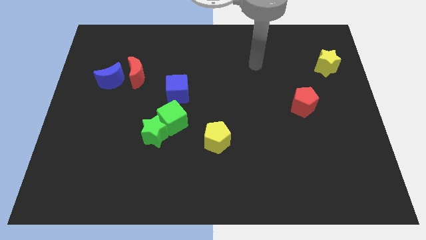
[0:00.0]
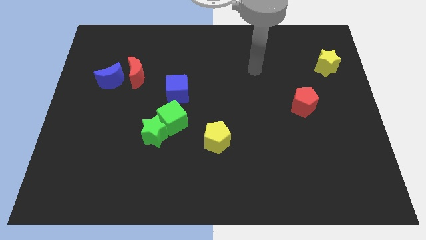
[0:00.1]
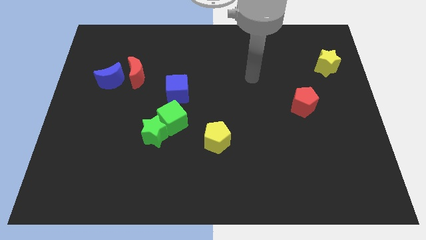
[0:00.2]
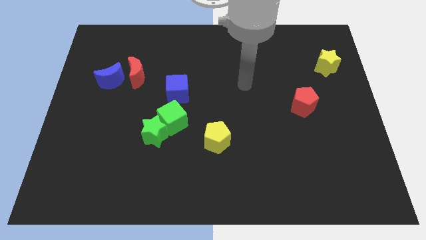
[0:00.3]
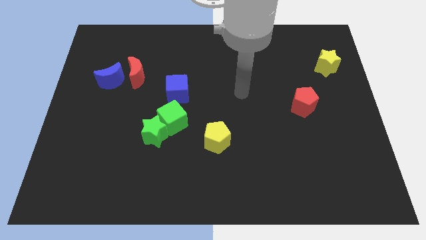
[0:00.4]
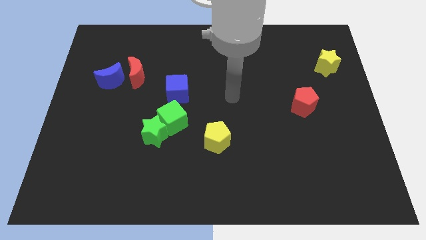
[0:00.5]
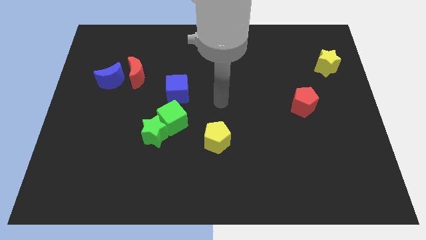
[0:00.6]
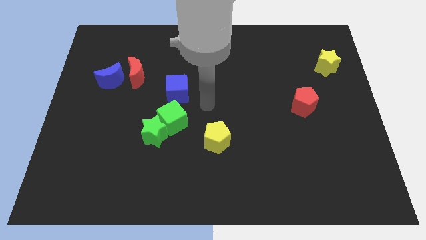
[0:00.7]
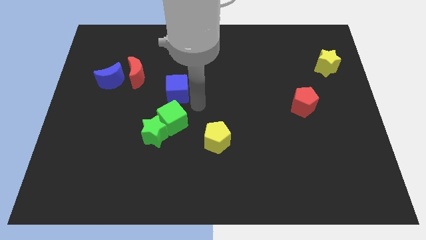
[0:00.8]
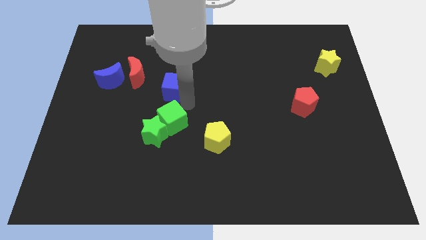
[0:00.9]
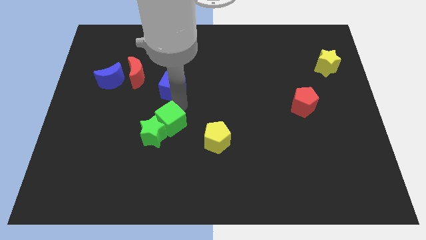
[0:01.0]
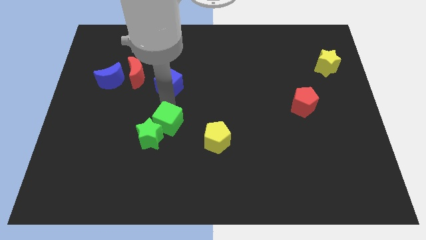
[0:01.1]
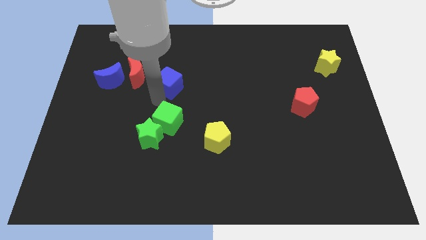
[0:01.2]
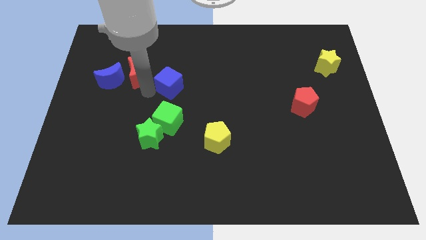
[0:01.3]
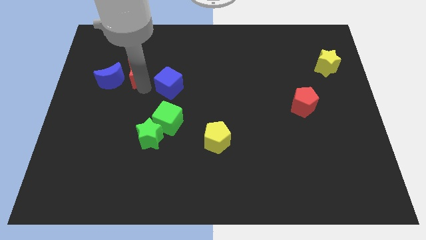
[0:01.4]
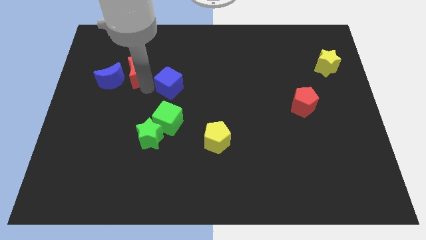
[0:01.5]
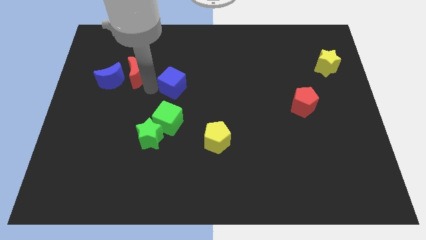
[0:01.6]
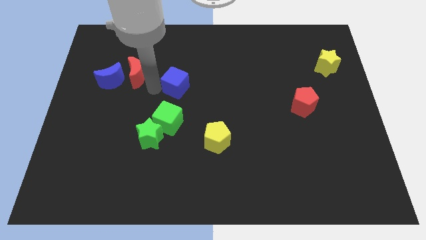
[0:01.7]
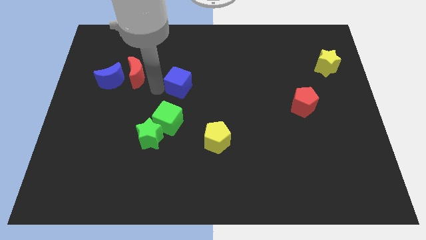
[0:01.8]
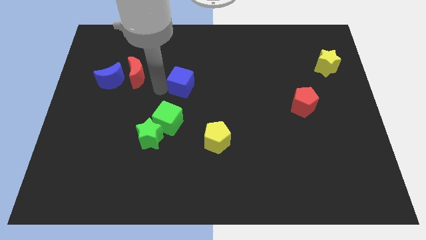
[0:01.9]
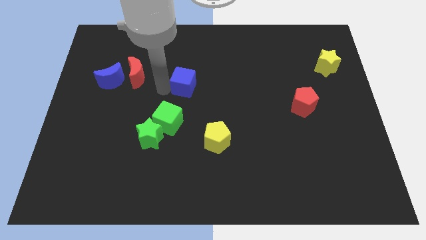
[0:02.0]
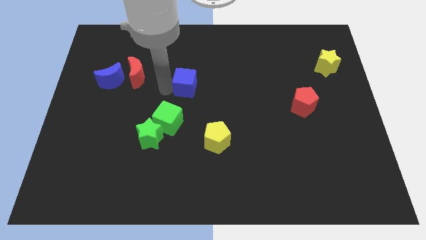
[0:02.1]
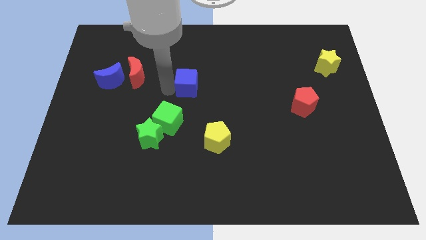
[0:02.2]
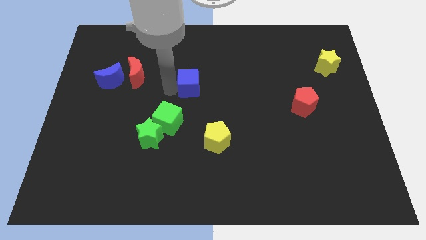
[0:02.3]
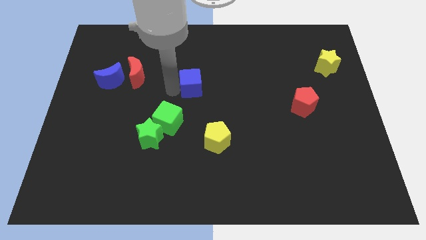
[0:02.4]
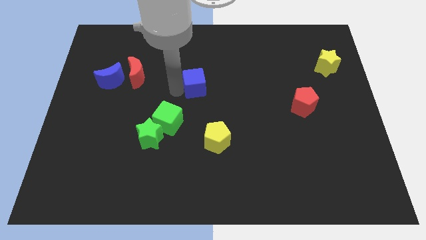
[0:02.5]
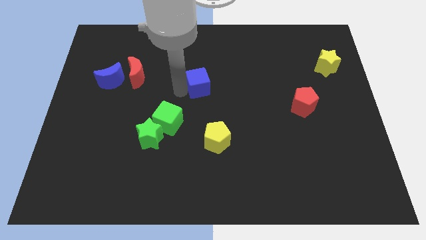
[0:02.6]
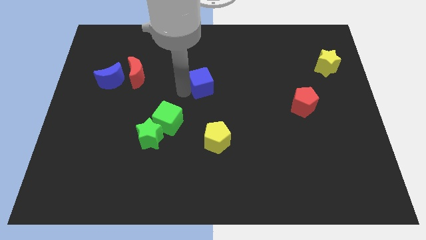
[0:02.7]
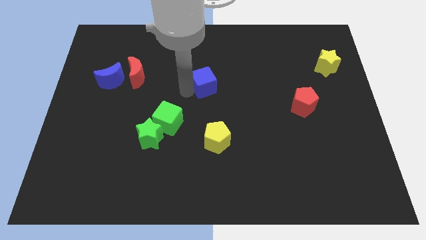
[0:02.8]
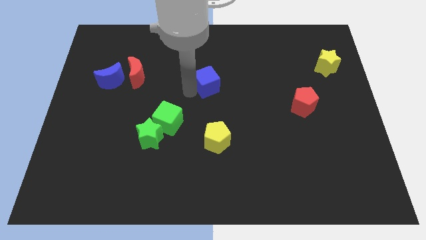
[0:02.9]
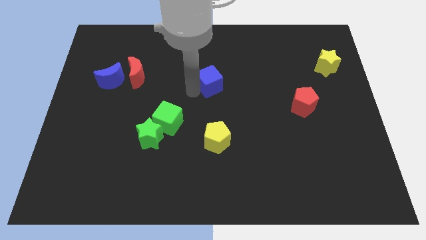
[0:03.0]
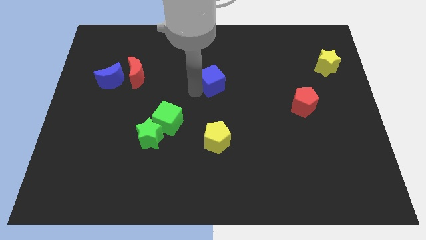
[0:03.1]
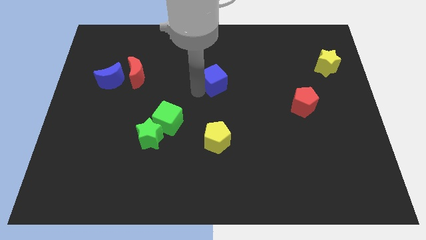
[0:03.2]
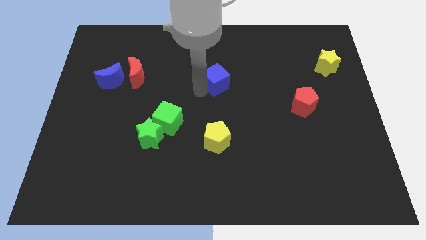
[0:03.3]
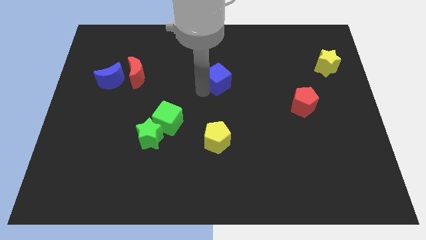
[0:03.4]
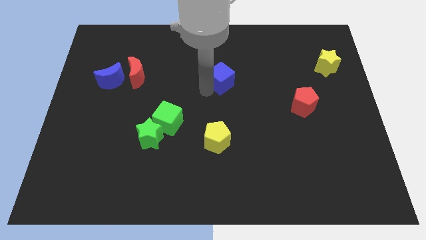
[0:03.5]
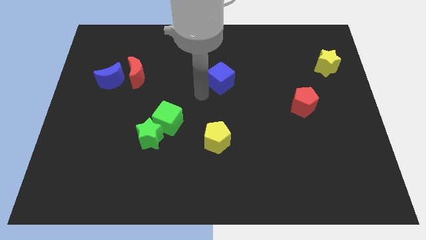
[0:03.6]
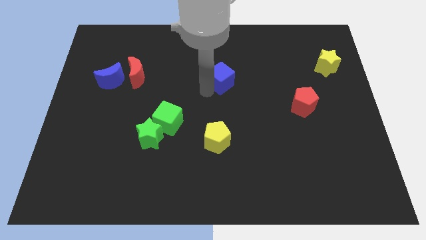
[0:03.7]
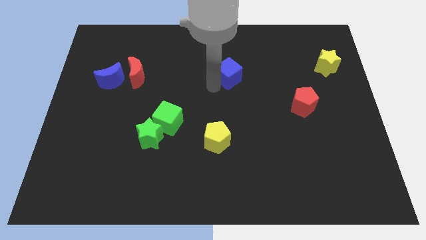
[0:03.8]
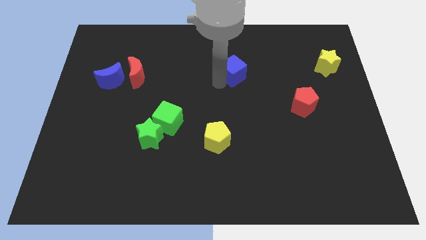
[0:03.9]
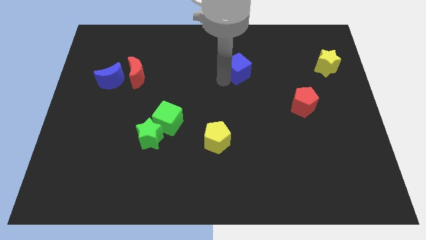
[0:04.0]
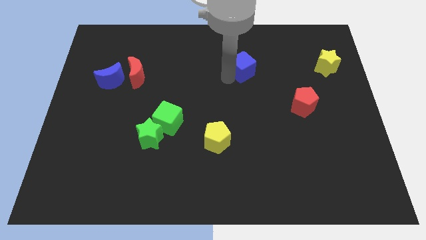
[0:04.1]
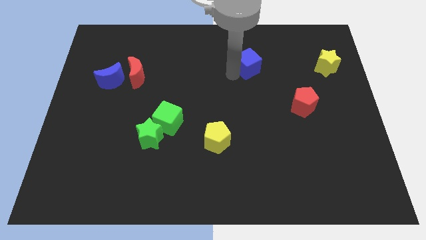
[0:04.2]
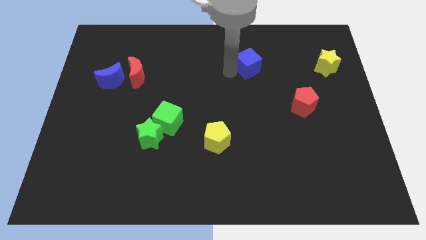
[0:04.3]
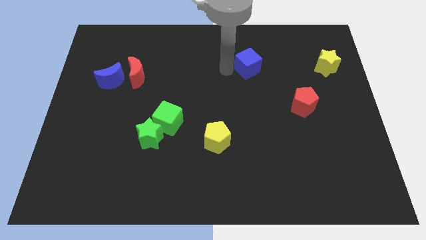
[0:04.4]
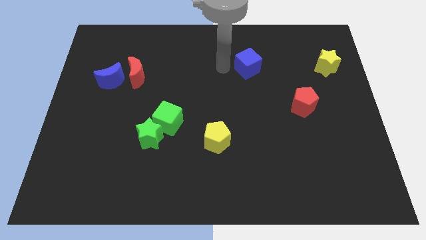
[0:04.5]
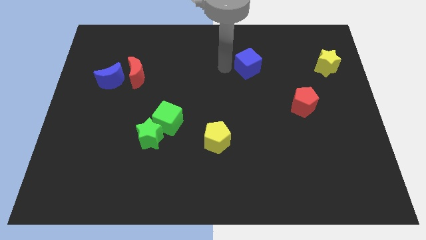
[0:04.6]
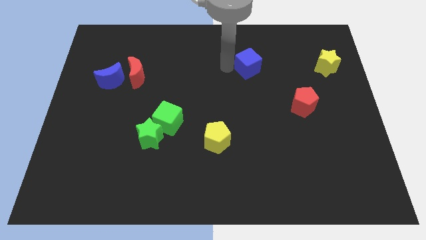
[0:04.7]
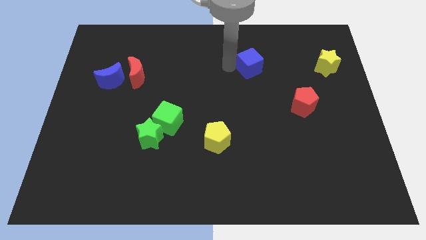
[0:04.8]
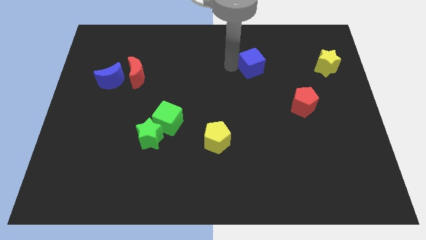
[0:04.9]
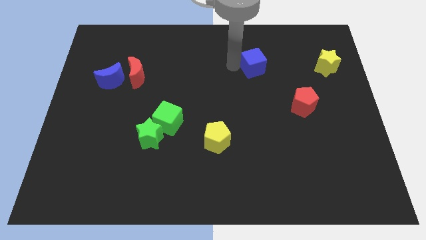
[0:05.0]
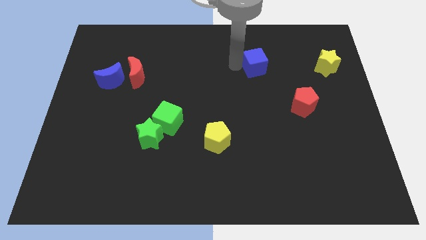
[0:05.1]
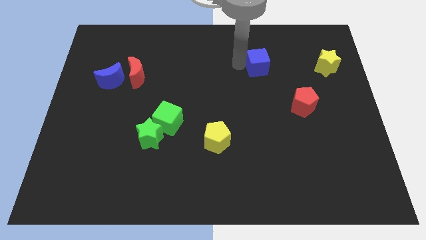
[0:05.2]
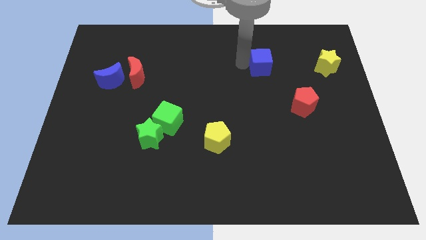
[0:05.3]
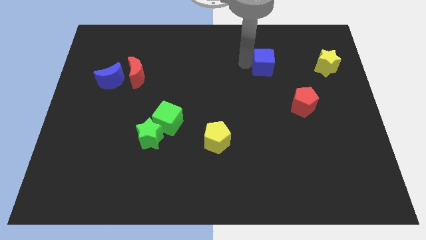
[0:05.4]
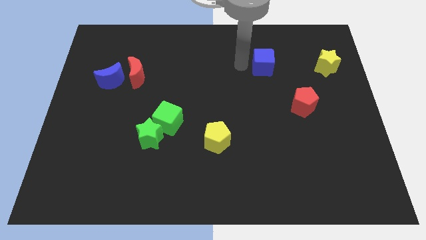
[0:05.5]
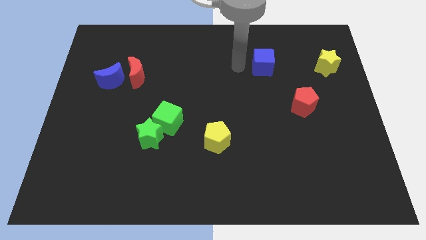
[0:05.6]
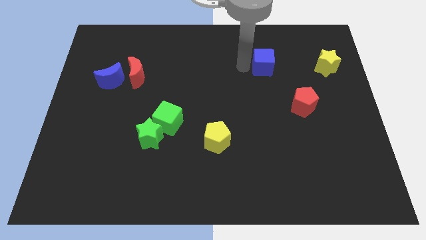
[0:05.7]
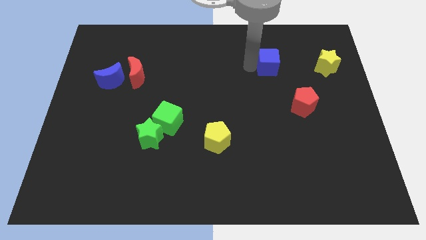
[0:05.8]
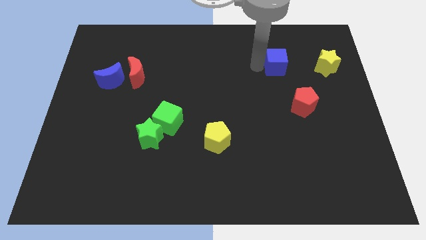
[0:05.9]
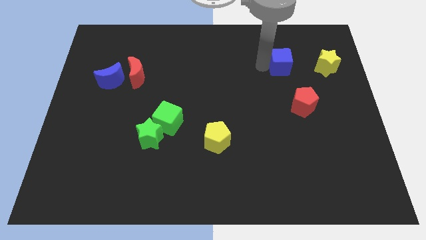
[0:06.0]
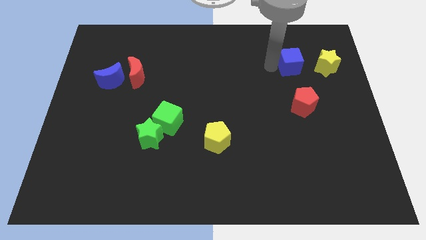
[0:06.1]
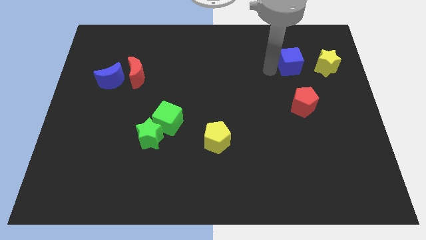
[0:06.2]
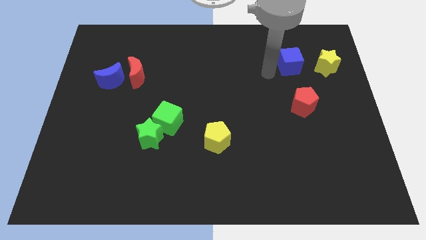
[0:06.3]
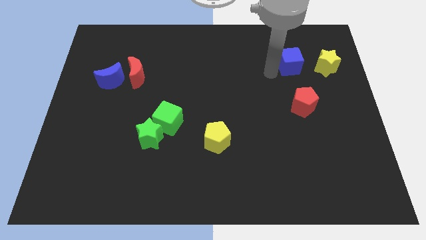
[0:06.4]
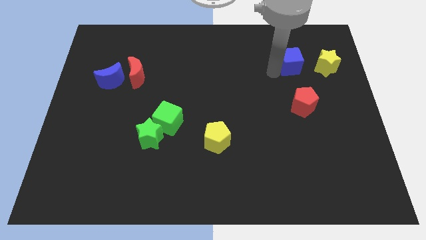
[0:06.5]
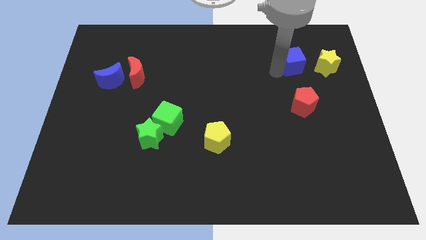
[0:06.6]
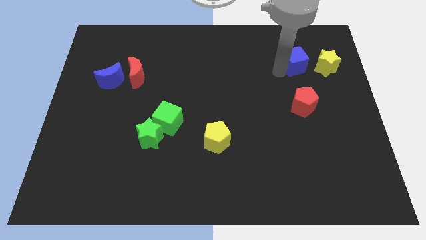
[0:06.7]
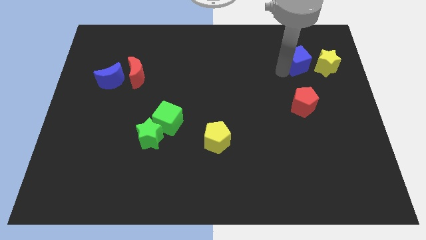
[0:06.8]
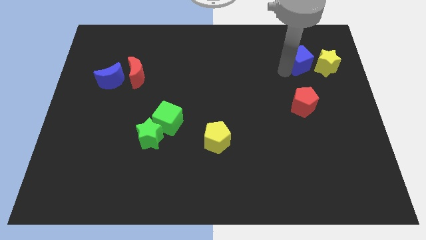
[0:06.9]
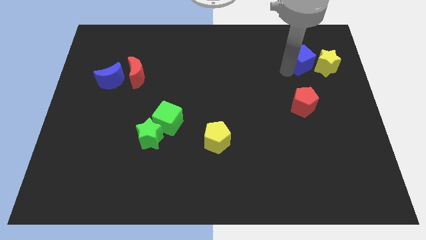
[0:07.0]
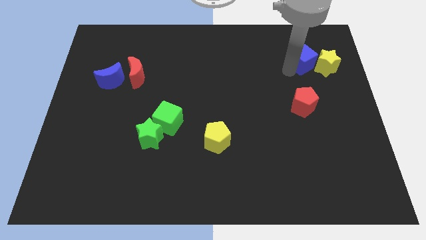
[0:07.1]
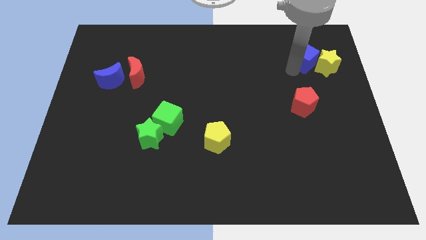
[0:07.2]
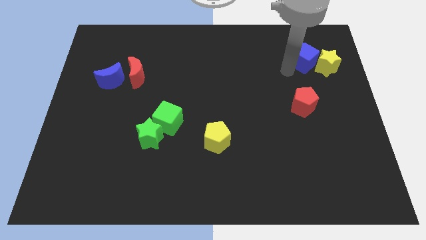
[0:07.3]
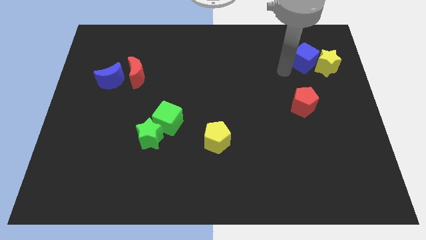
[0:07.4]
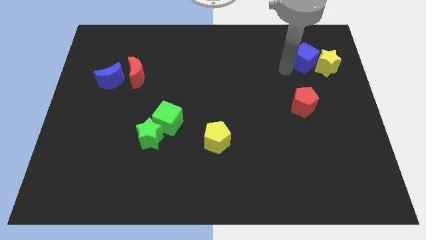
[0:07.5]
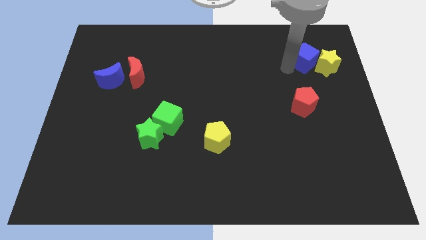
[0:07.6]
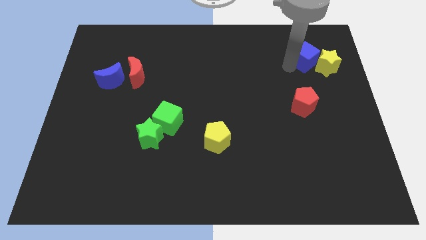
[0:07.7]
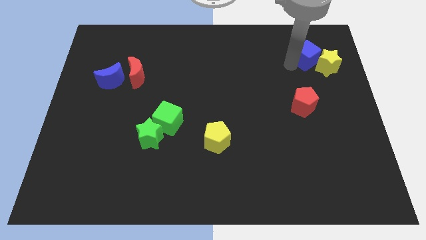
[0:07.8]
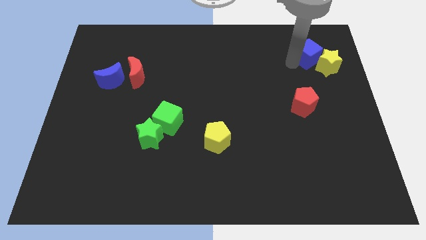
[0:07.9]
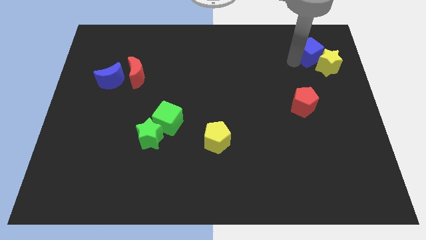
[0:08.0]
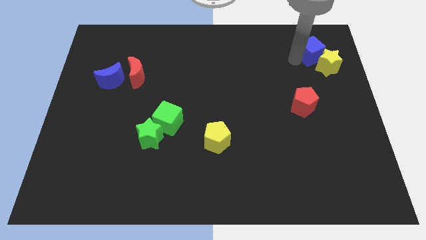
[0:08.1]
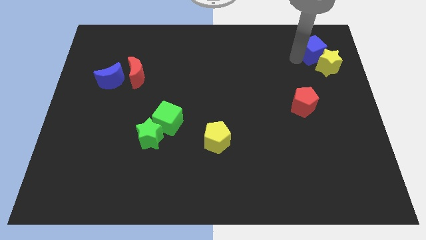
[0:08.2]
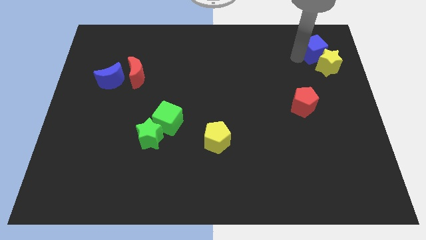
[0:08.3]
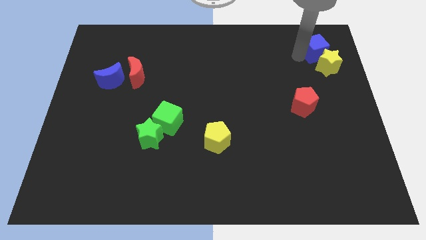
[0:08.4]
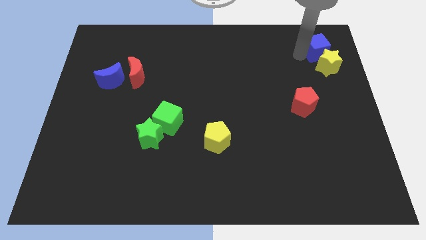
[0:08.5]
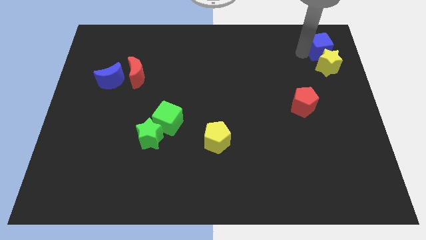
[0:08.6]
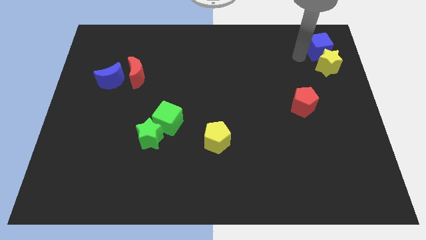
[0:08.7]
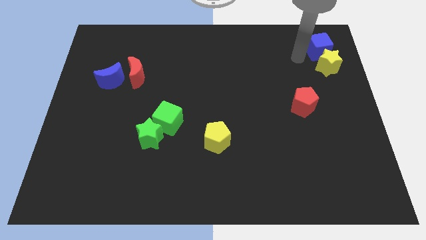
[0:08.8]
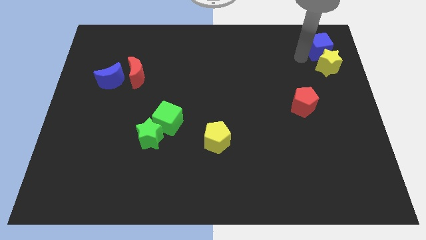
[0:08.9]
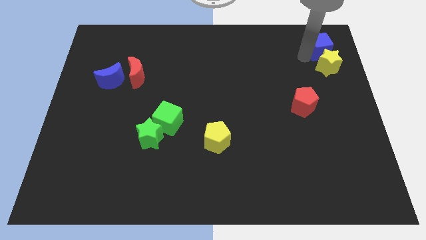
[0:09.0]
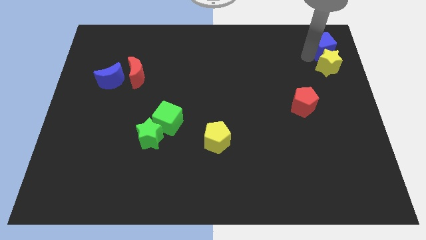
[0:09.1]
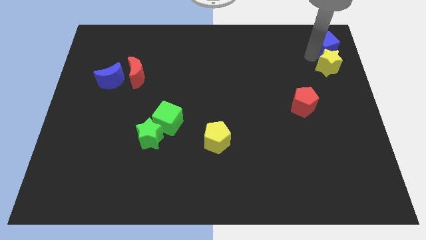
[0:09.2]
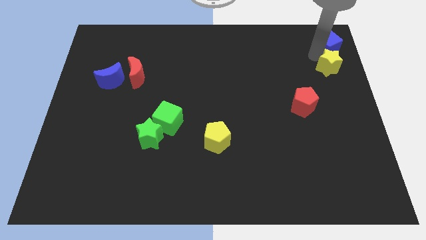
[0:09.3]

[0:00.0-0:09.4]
move the blue cube to the top right of the board
